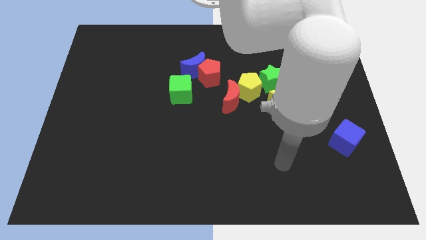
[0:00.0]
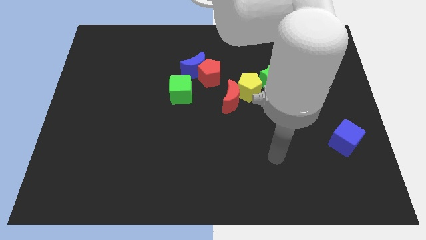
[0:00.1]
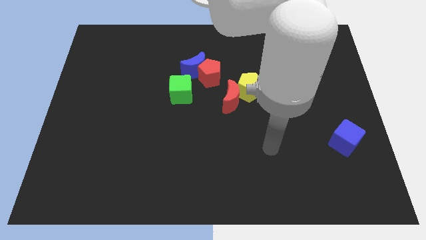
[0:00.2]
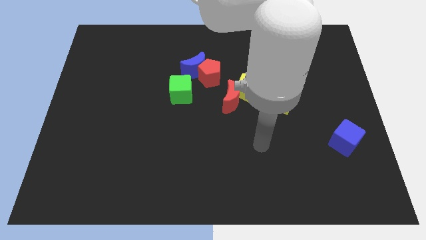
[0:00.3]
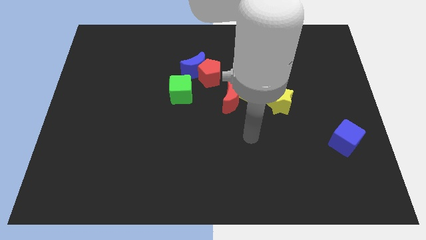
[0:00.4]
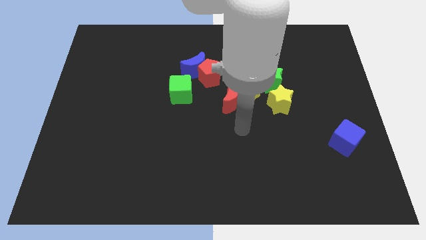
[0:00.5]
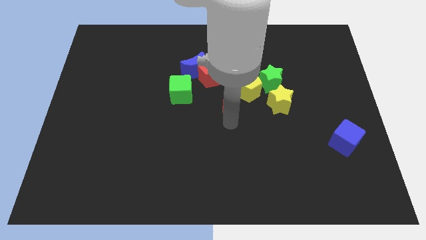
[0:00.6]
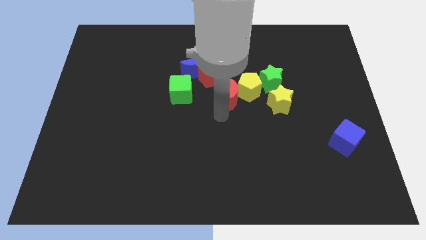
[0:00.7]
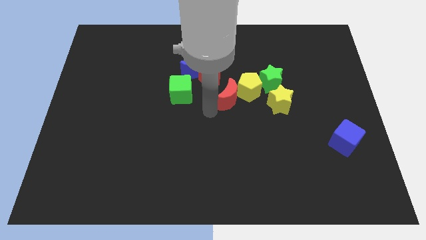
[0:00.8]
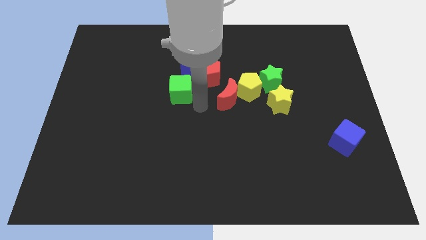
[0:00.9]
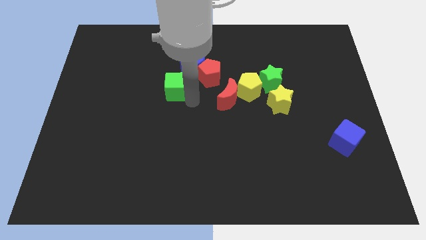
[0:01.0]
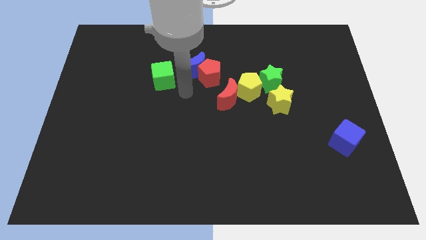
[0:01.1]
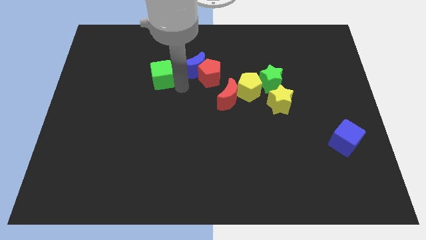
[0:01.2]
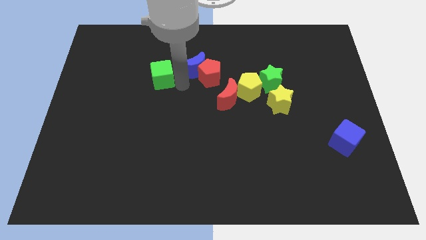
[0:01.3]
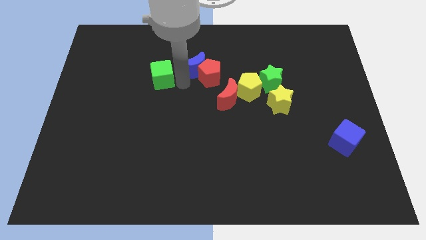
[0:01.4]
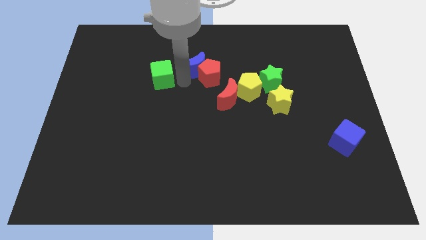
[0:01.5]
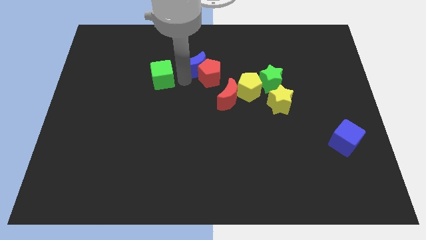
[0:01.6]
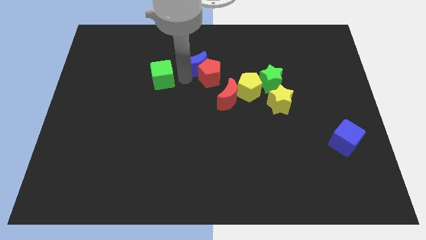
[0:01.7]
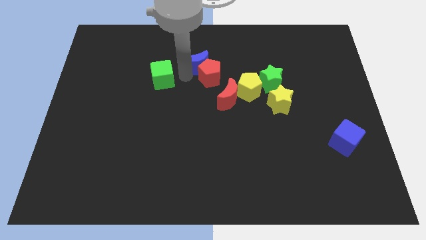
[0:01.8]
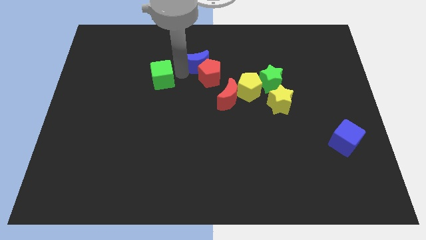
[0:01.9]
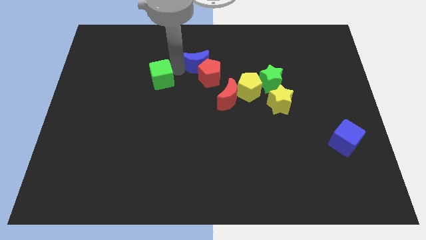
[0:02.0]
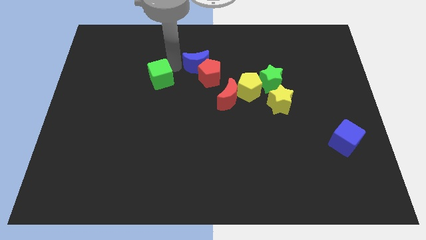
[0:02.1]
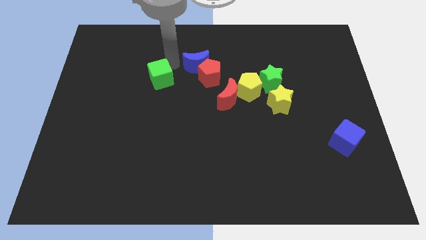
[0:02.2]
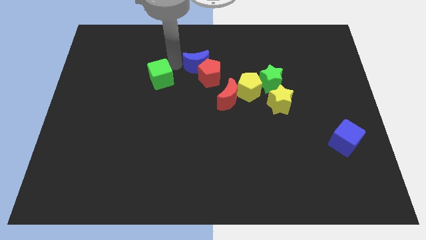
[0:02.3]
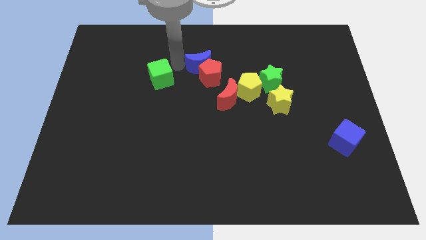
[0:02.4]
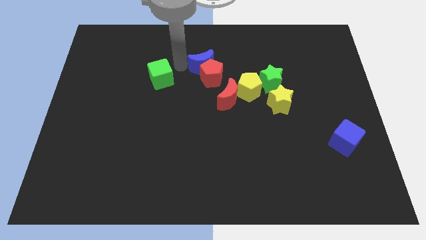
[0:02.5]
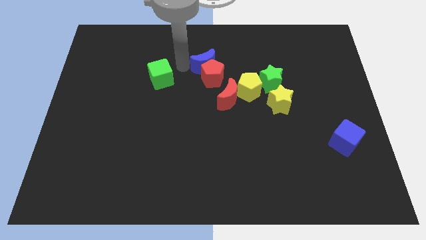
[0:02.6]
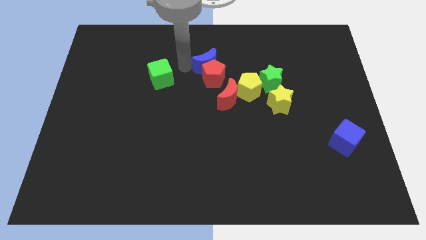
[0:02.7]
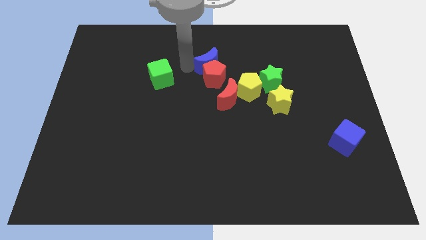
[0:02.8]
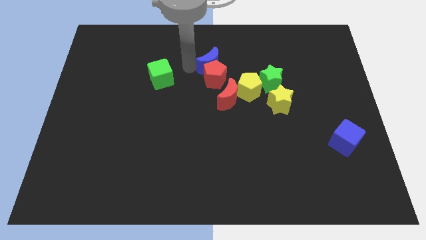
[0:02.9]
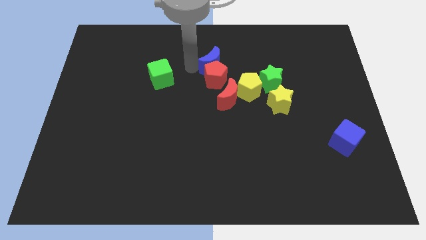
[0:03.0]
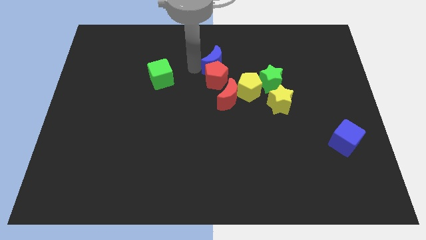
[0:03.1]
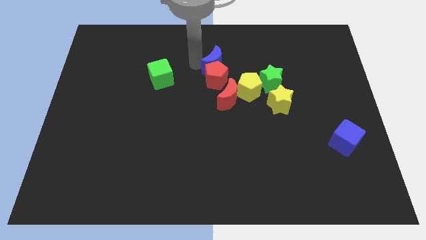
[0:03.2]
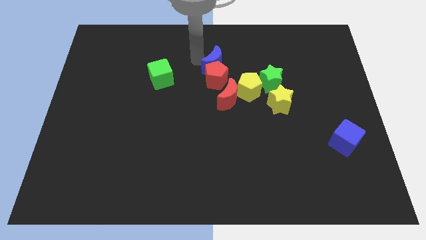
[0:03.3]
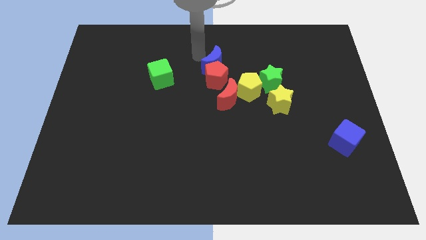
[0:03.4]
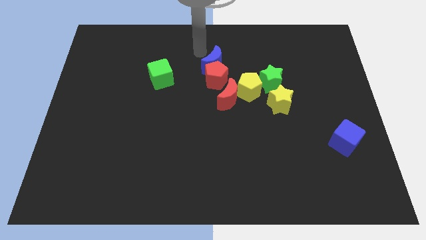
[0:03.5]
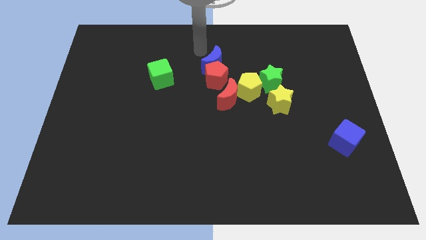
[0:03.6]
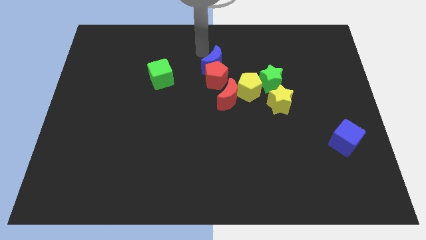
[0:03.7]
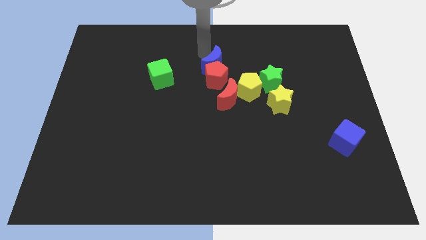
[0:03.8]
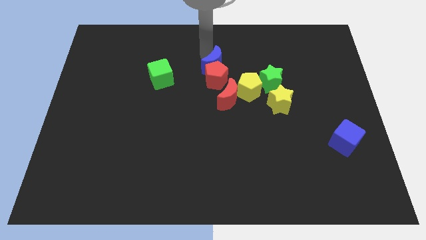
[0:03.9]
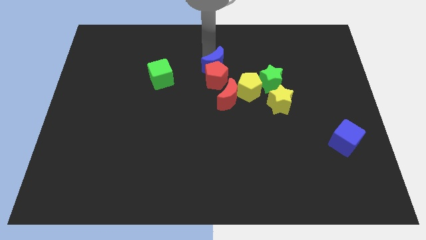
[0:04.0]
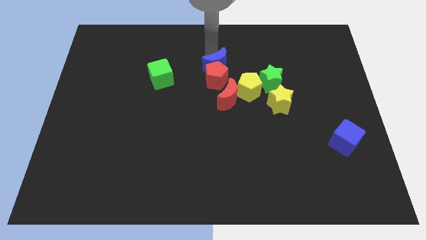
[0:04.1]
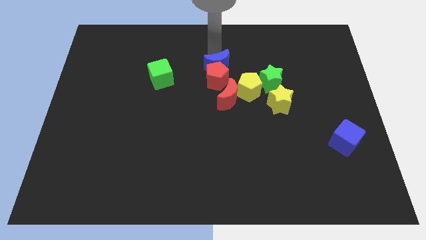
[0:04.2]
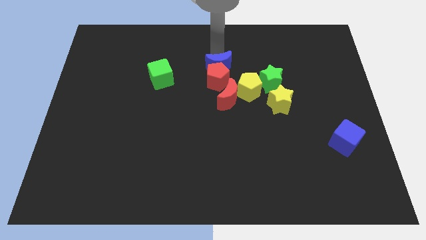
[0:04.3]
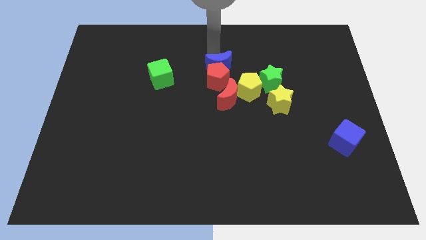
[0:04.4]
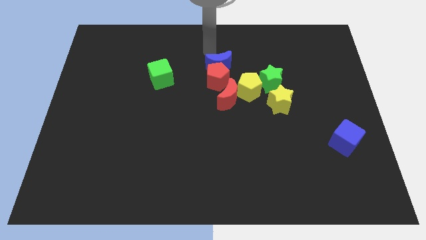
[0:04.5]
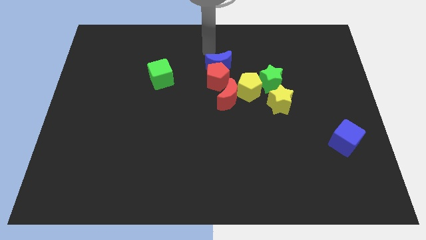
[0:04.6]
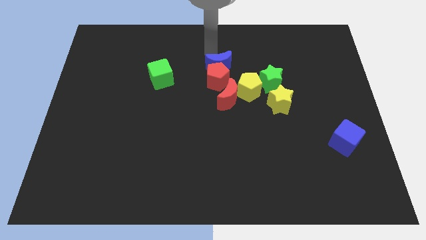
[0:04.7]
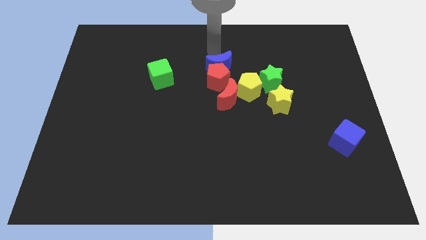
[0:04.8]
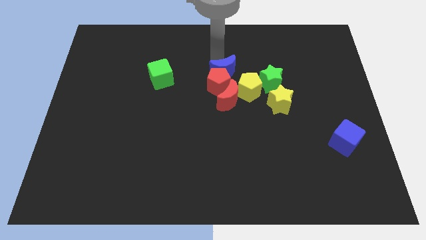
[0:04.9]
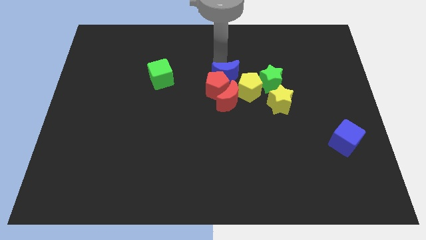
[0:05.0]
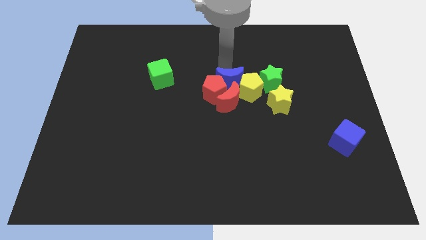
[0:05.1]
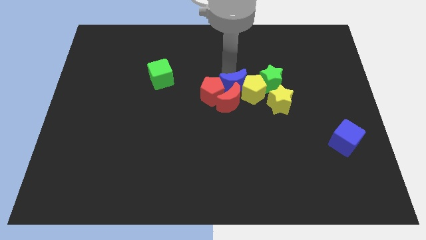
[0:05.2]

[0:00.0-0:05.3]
slide the blue moon close to the red moon

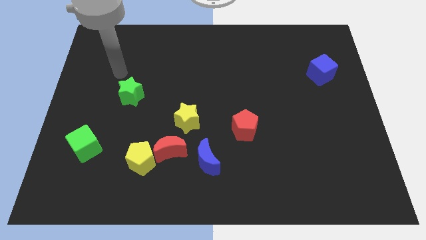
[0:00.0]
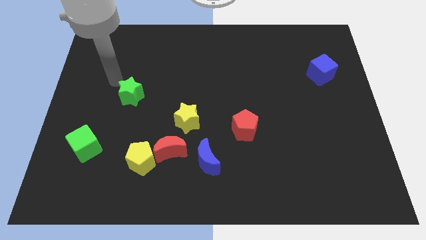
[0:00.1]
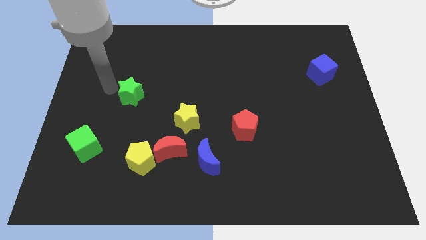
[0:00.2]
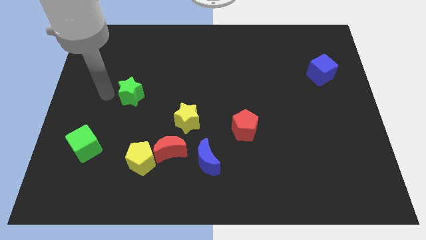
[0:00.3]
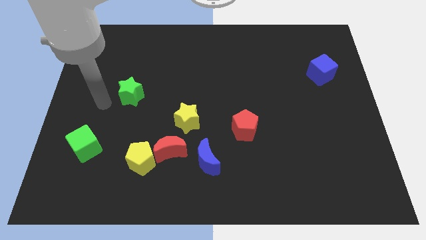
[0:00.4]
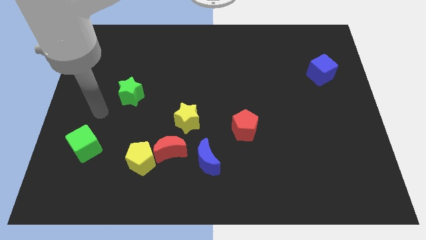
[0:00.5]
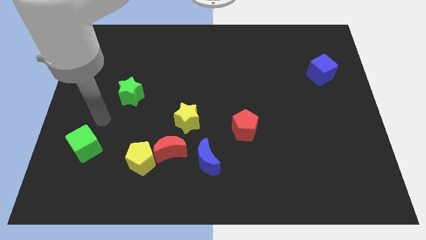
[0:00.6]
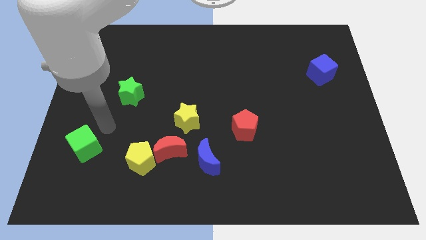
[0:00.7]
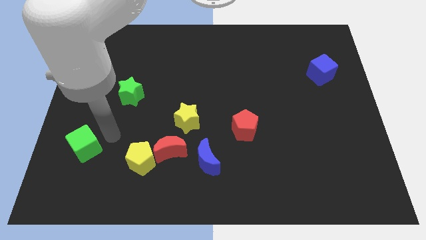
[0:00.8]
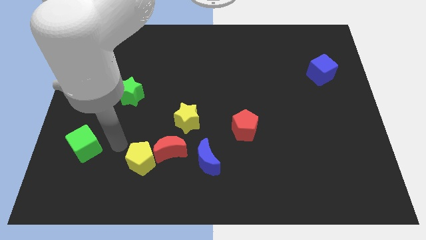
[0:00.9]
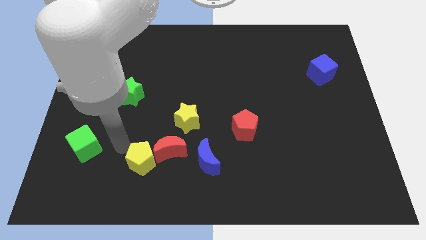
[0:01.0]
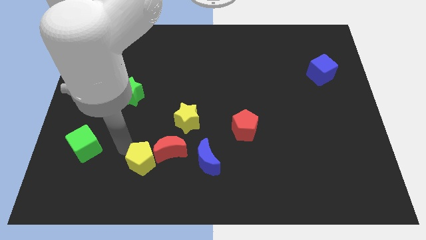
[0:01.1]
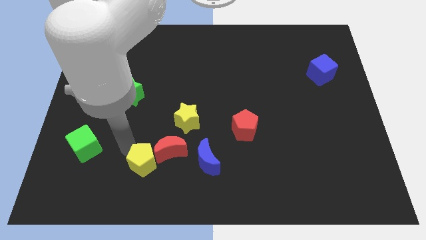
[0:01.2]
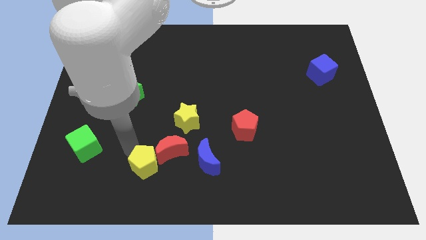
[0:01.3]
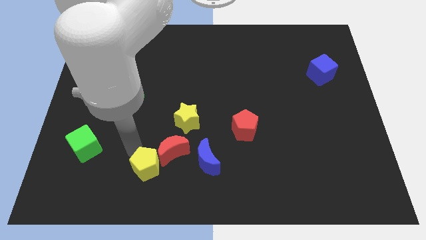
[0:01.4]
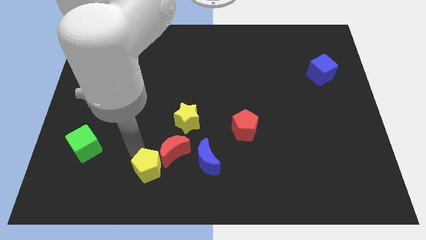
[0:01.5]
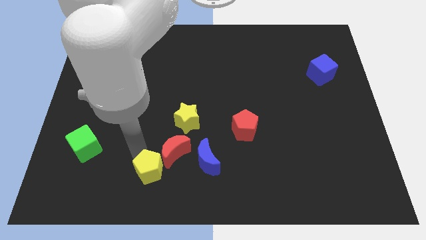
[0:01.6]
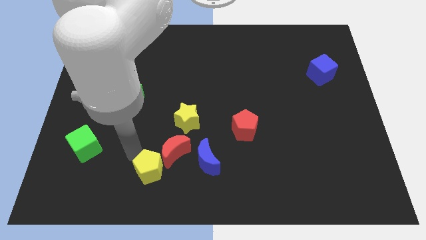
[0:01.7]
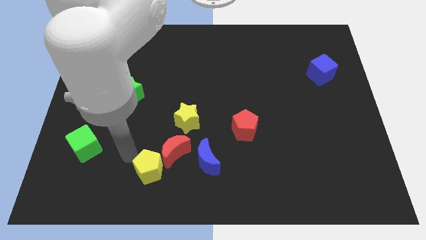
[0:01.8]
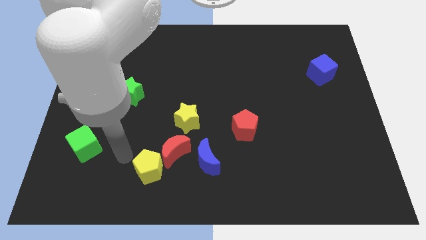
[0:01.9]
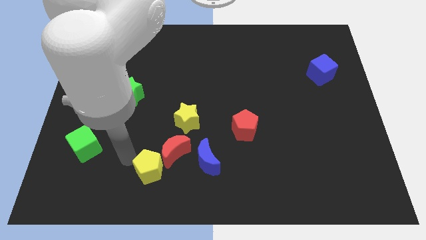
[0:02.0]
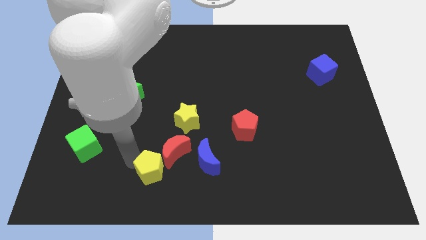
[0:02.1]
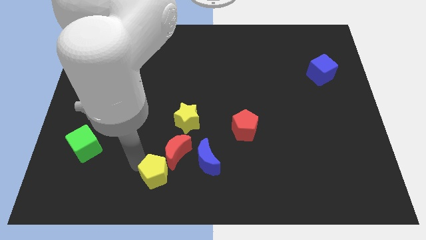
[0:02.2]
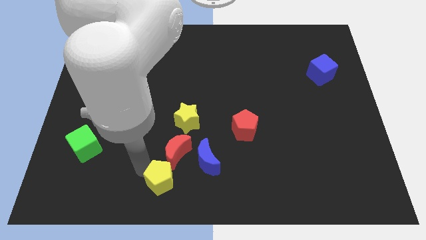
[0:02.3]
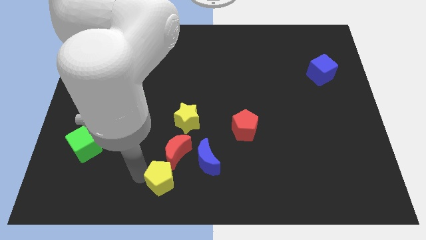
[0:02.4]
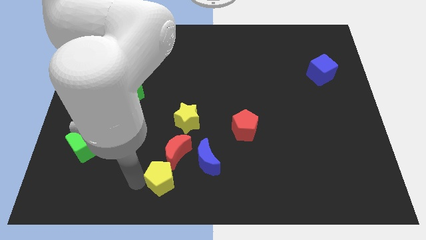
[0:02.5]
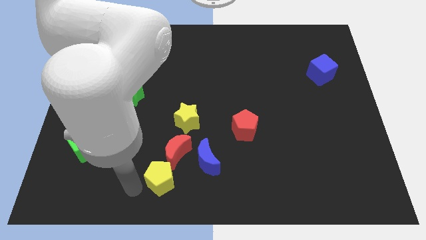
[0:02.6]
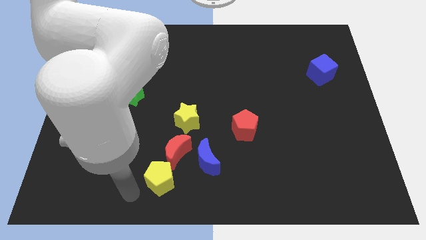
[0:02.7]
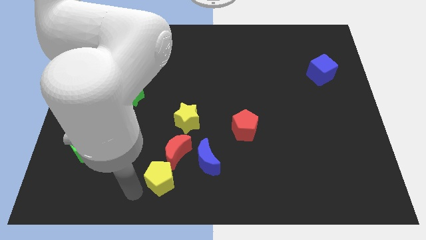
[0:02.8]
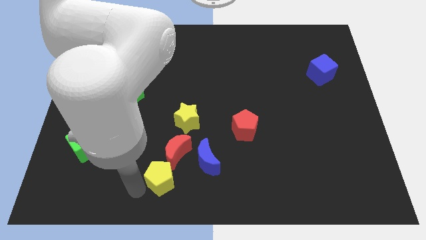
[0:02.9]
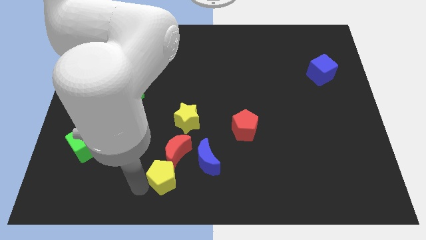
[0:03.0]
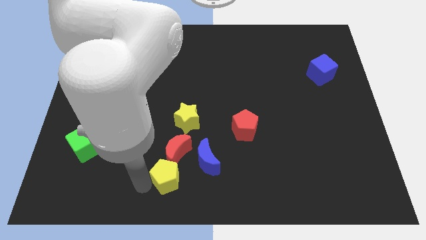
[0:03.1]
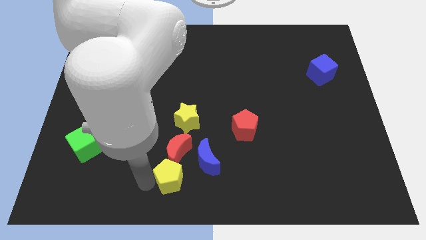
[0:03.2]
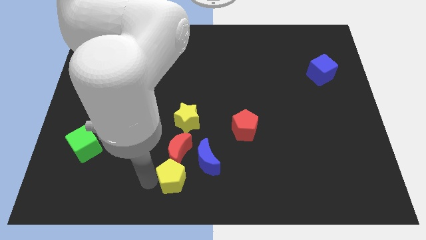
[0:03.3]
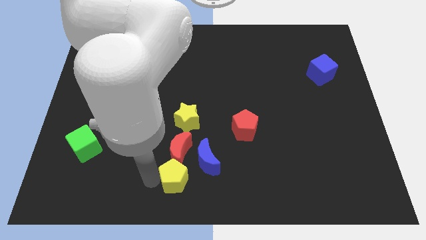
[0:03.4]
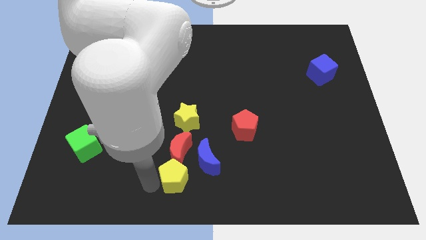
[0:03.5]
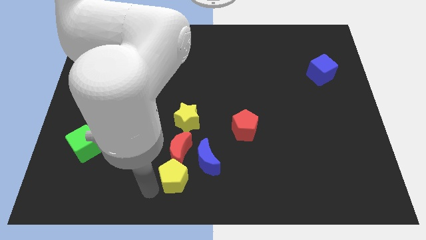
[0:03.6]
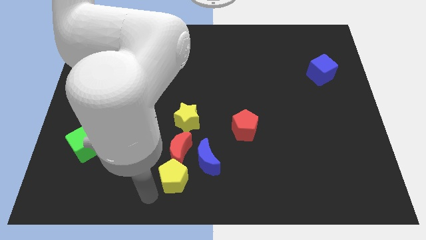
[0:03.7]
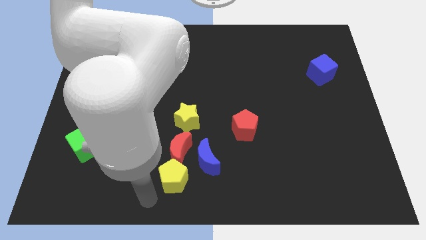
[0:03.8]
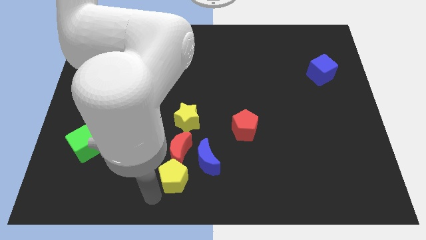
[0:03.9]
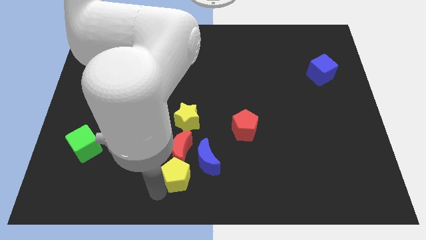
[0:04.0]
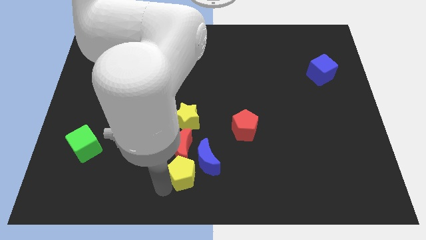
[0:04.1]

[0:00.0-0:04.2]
put the yellow pentagon towards the blue moon
